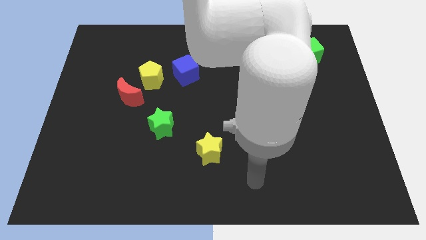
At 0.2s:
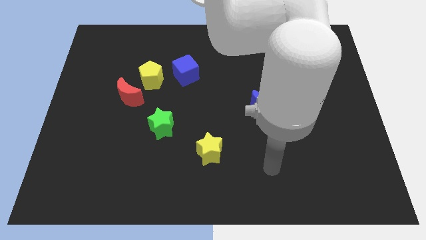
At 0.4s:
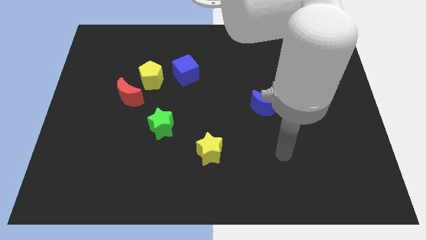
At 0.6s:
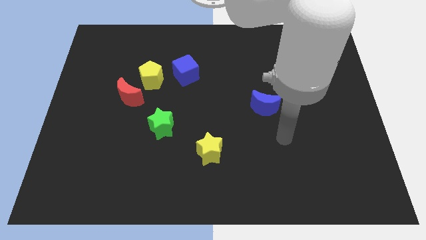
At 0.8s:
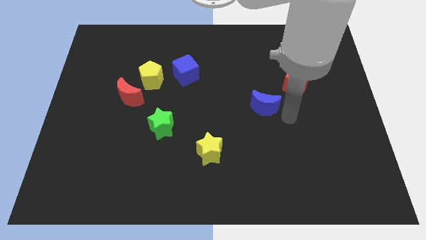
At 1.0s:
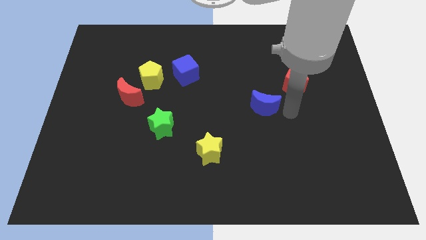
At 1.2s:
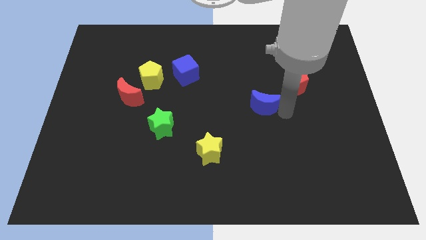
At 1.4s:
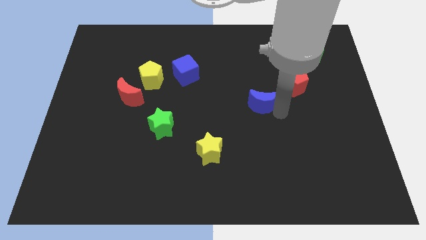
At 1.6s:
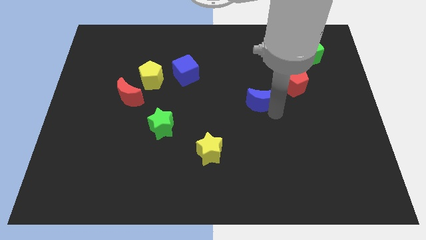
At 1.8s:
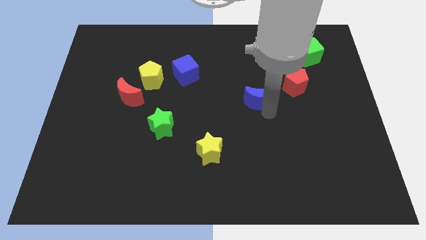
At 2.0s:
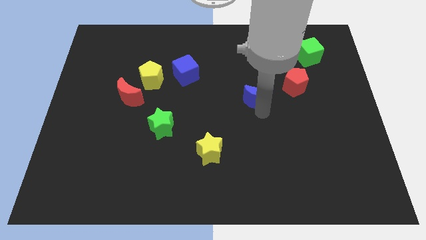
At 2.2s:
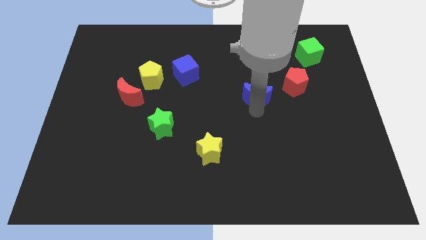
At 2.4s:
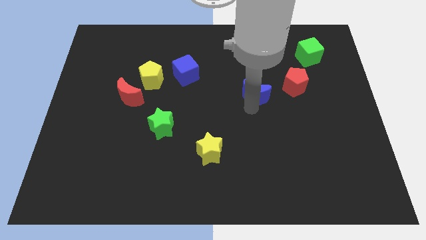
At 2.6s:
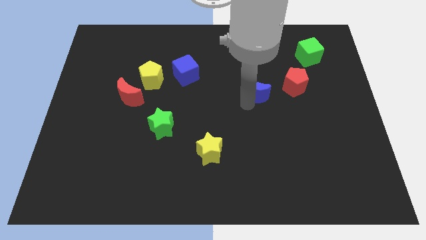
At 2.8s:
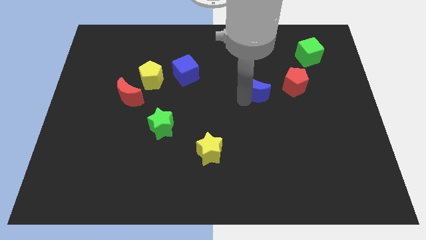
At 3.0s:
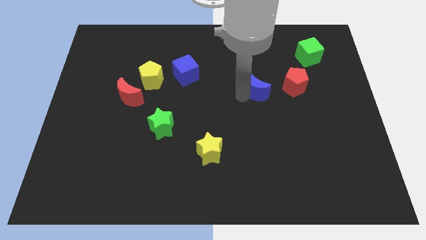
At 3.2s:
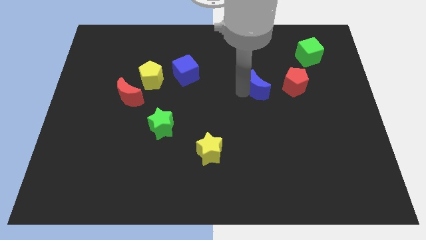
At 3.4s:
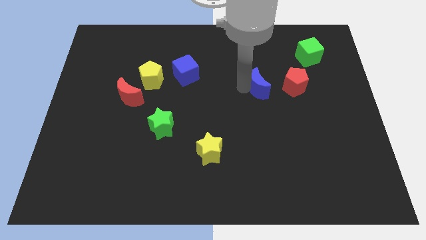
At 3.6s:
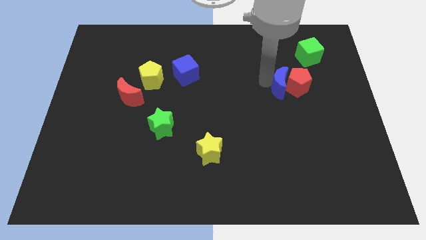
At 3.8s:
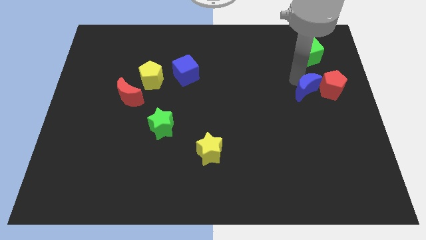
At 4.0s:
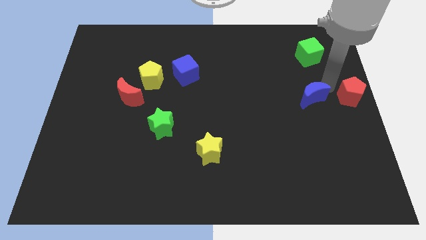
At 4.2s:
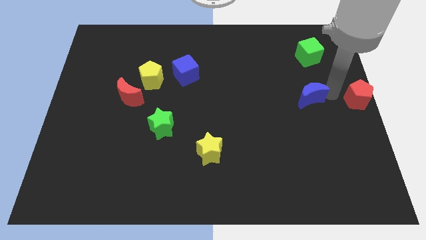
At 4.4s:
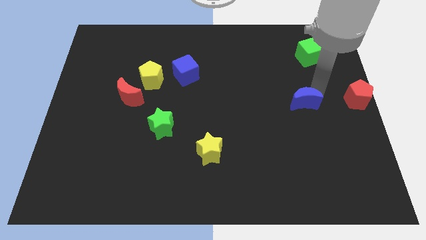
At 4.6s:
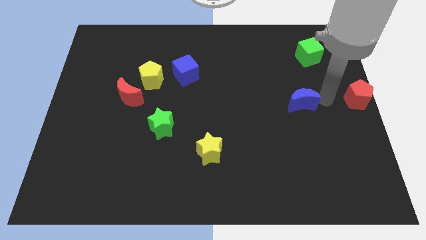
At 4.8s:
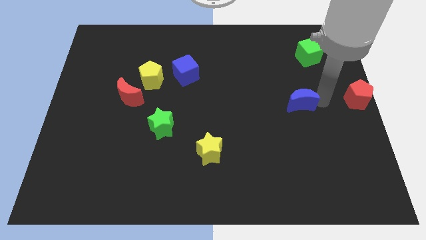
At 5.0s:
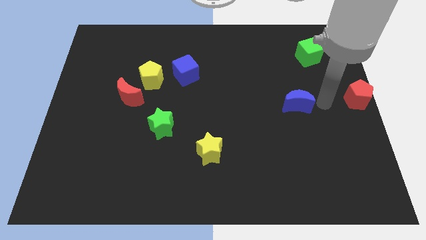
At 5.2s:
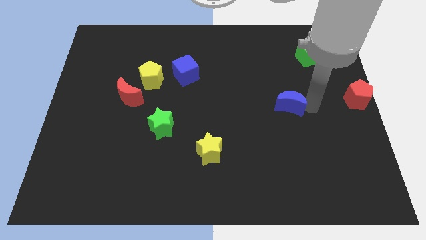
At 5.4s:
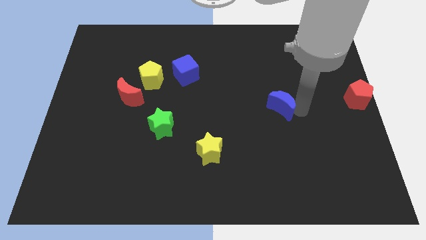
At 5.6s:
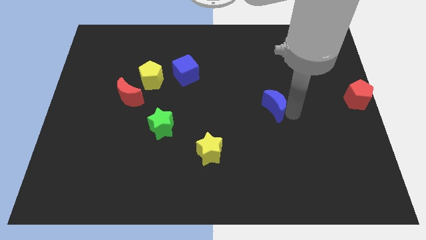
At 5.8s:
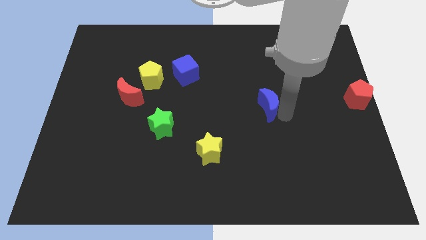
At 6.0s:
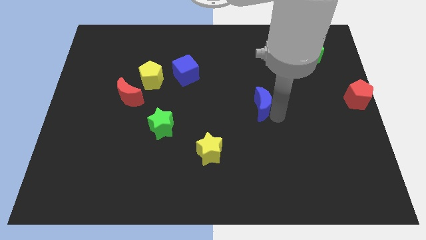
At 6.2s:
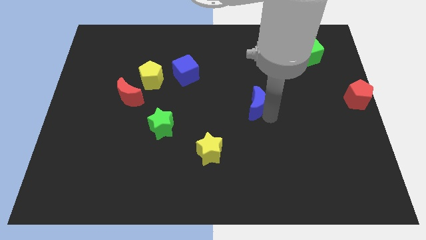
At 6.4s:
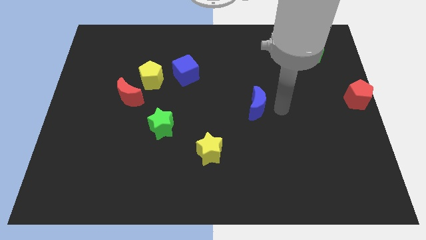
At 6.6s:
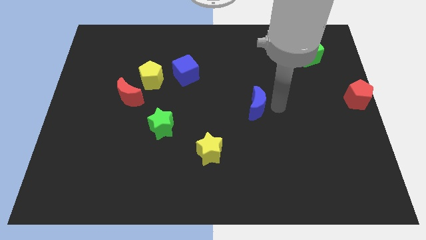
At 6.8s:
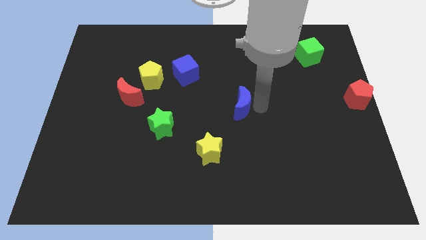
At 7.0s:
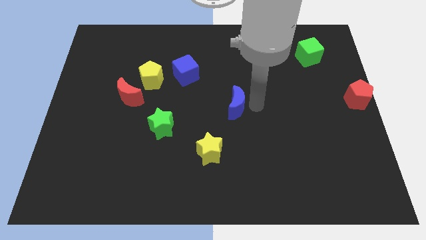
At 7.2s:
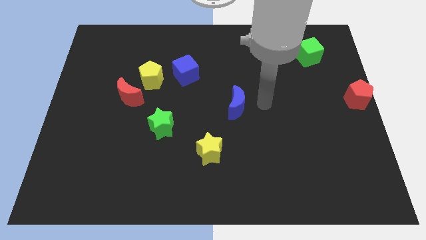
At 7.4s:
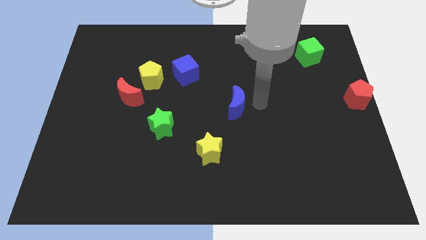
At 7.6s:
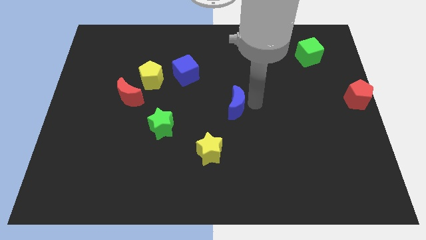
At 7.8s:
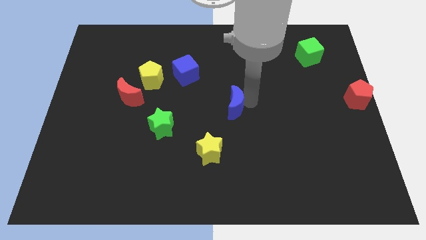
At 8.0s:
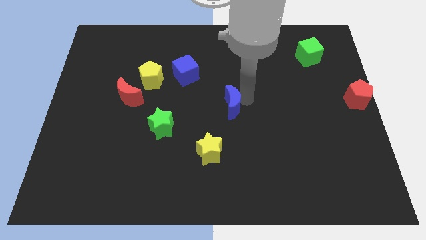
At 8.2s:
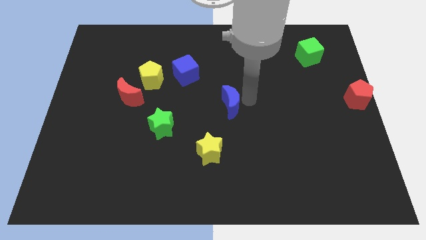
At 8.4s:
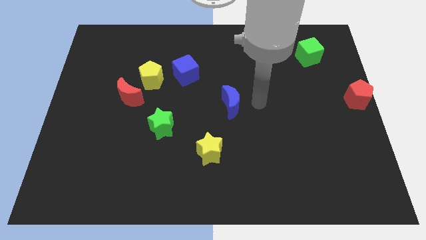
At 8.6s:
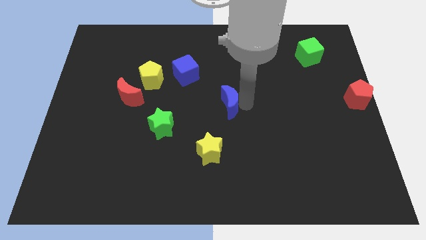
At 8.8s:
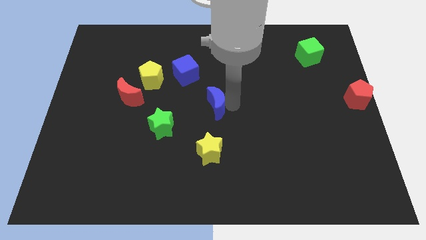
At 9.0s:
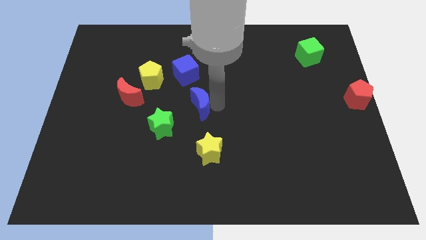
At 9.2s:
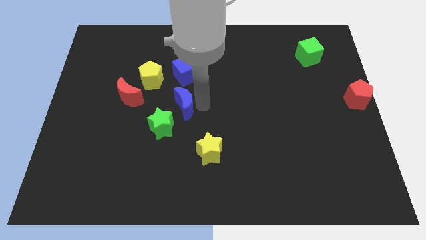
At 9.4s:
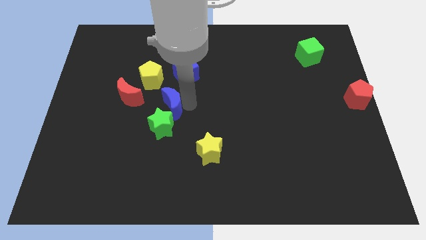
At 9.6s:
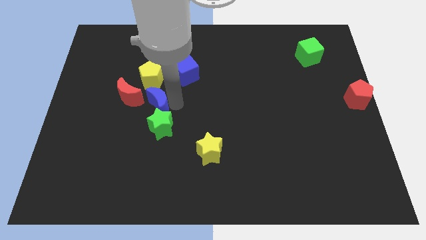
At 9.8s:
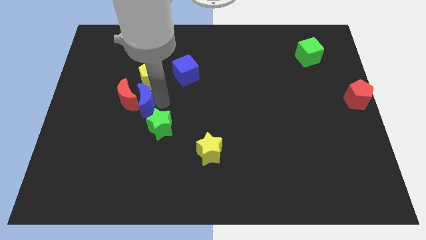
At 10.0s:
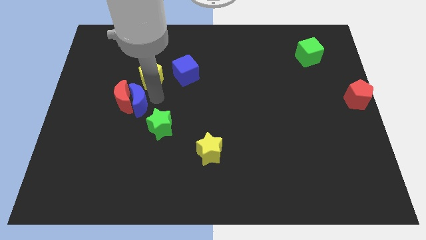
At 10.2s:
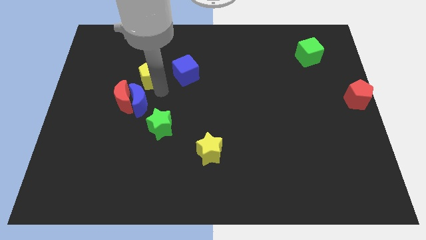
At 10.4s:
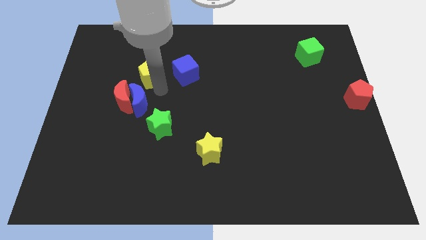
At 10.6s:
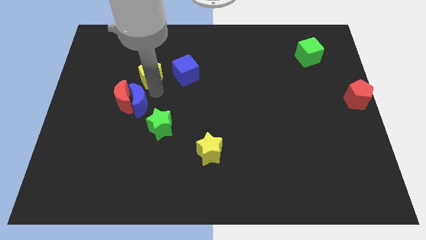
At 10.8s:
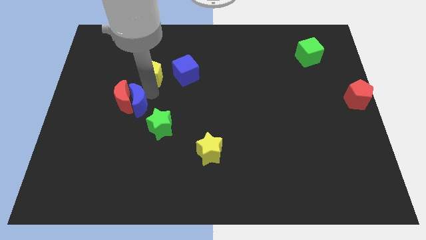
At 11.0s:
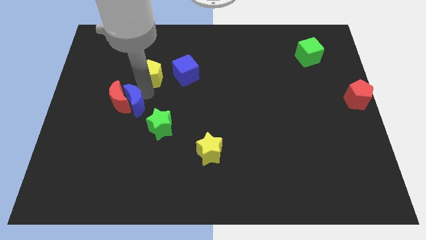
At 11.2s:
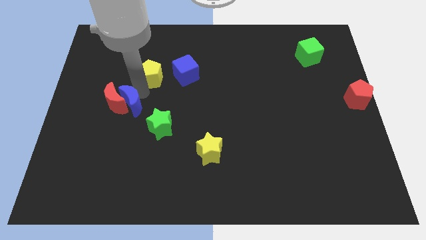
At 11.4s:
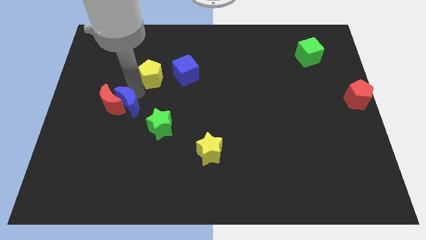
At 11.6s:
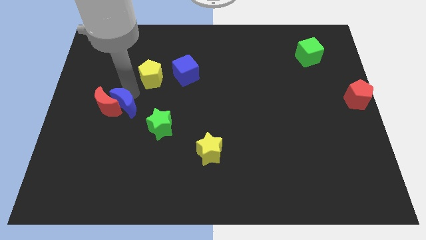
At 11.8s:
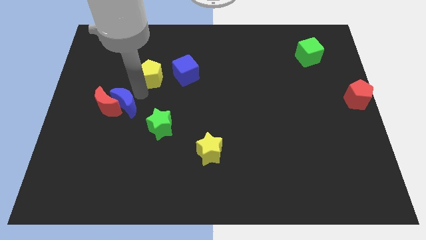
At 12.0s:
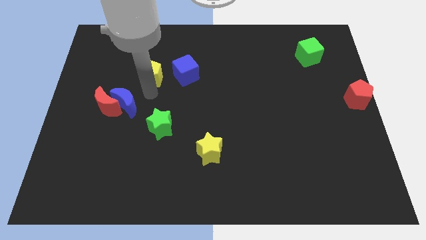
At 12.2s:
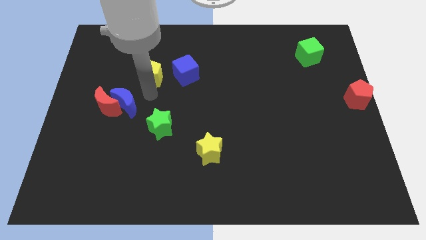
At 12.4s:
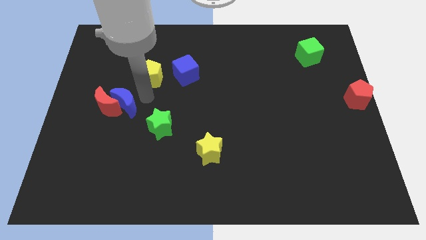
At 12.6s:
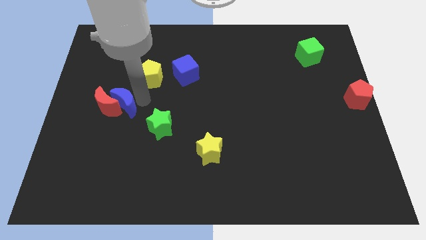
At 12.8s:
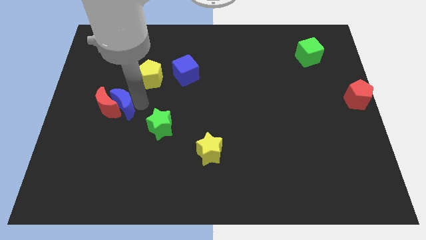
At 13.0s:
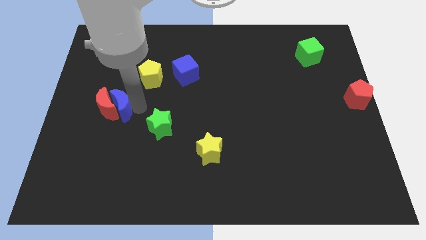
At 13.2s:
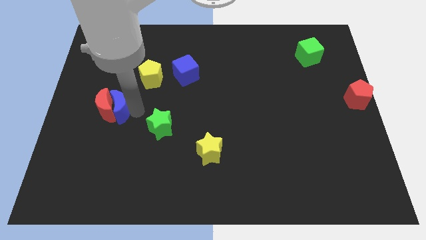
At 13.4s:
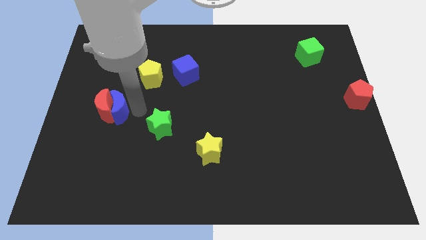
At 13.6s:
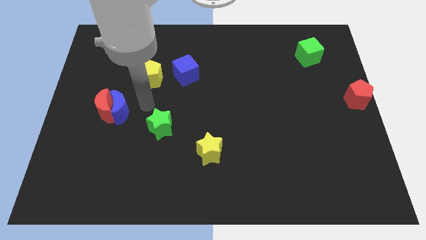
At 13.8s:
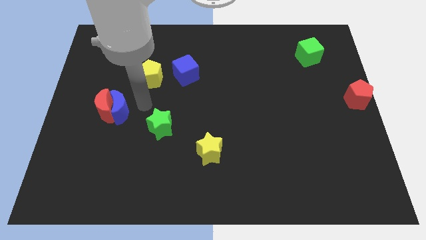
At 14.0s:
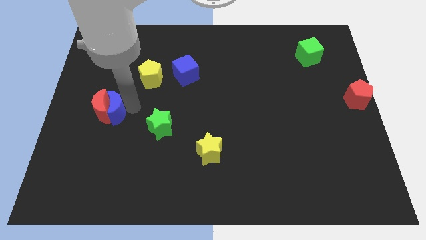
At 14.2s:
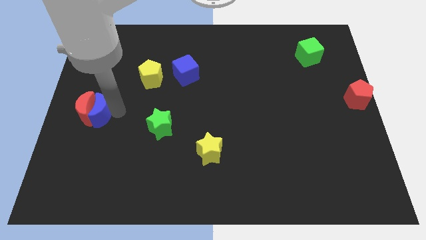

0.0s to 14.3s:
move the blue moon to the left side

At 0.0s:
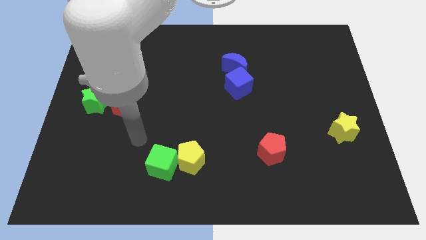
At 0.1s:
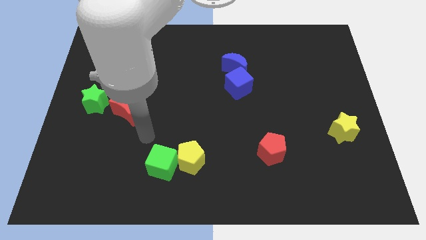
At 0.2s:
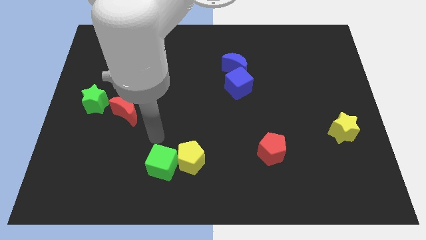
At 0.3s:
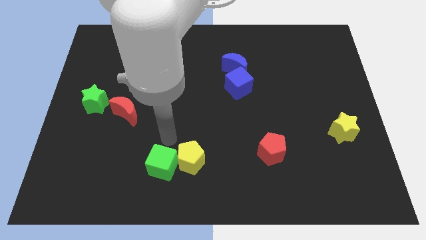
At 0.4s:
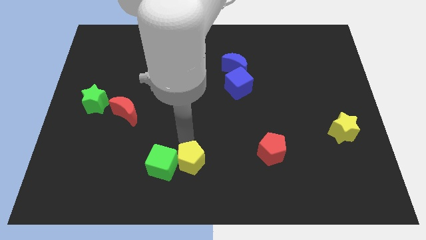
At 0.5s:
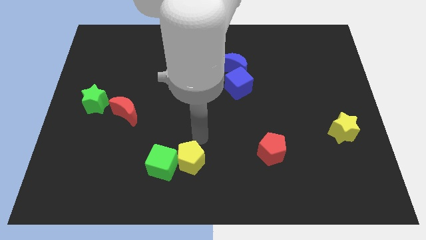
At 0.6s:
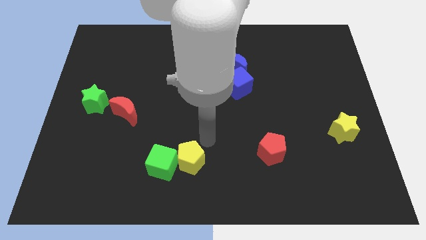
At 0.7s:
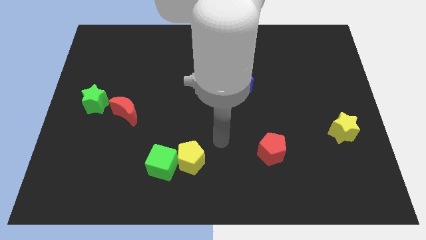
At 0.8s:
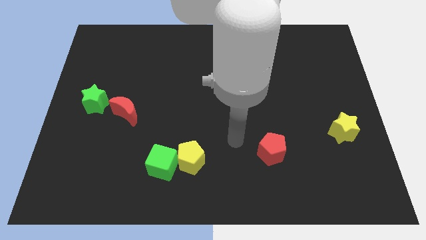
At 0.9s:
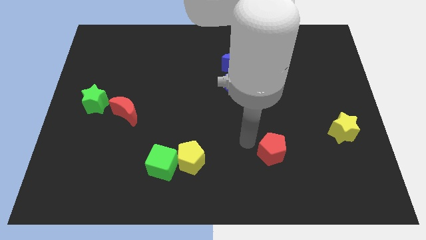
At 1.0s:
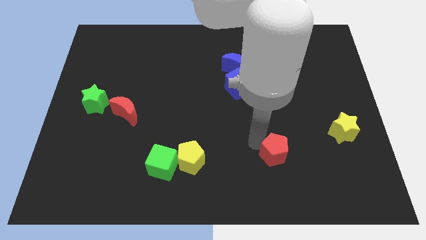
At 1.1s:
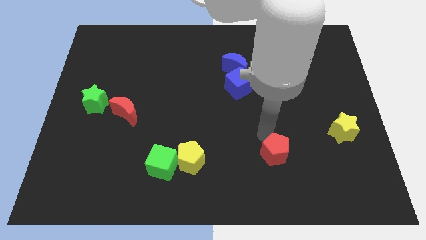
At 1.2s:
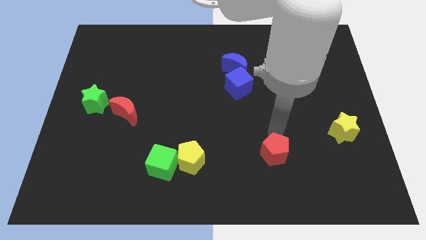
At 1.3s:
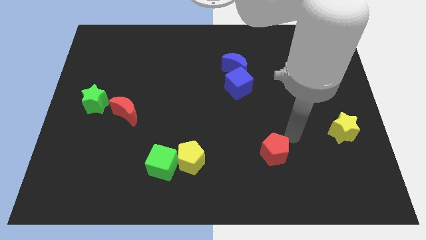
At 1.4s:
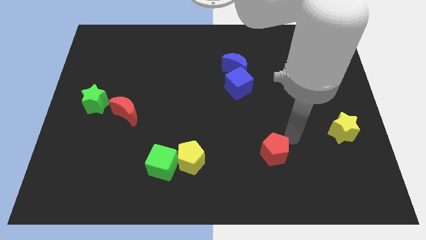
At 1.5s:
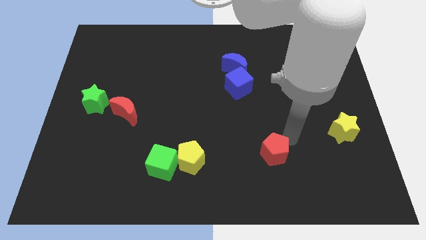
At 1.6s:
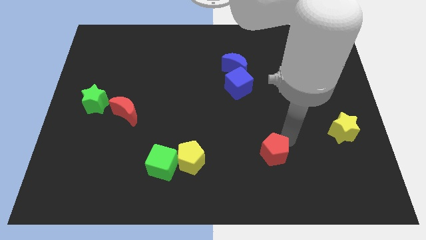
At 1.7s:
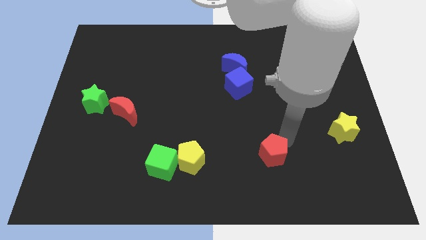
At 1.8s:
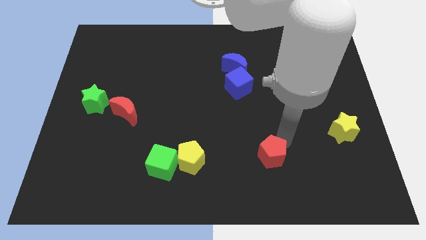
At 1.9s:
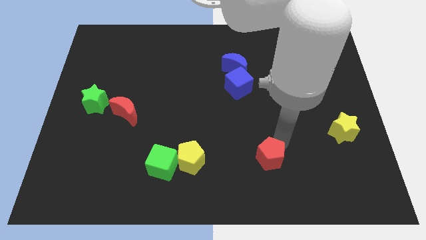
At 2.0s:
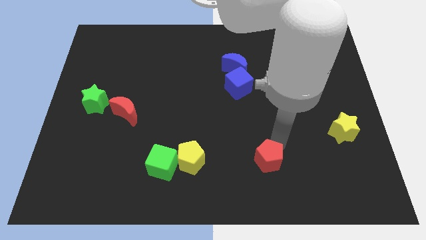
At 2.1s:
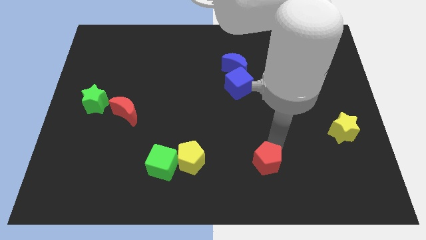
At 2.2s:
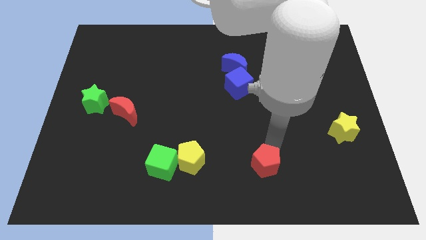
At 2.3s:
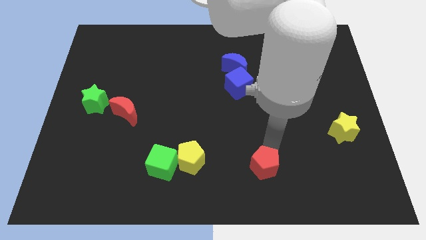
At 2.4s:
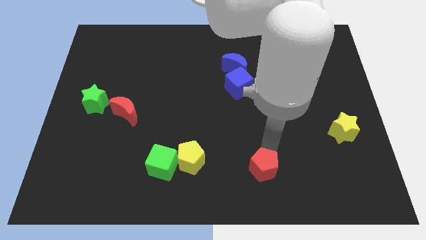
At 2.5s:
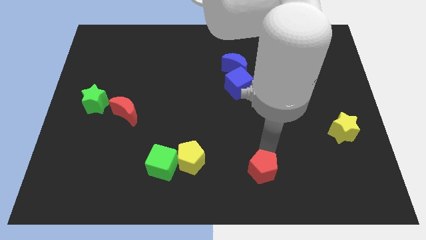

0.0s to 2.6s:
push the red pentagon to the bottom side
